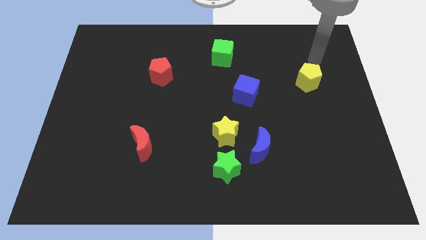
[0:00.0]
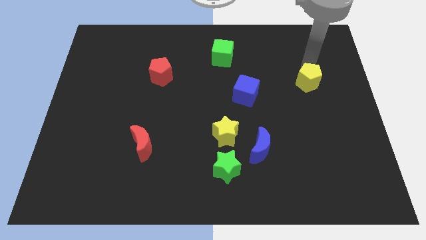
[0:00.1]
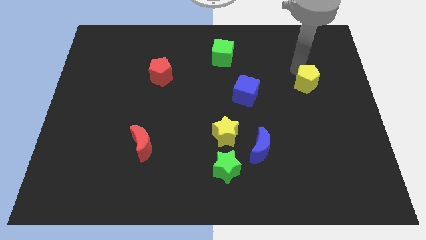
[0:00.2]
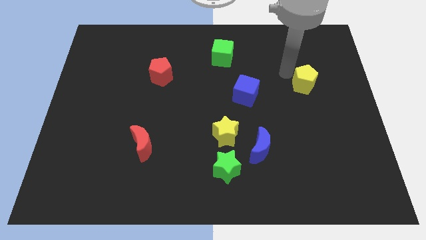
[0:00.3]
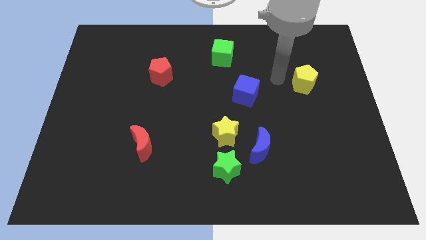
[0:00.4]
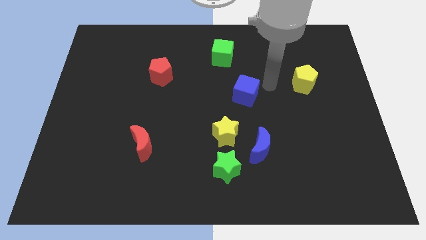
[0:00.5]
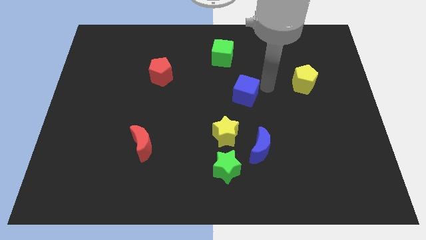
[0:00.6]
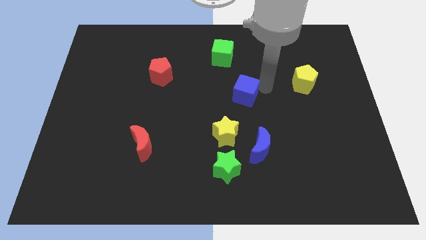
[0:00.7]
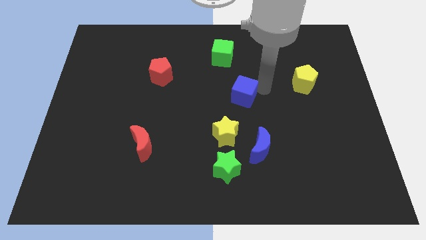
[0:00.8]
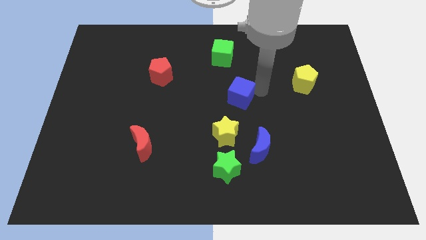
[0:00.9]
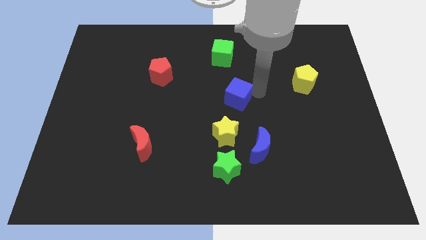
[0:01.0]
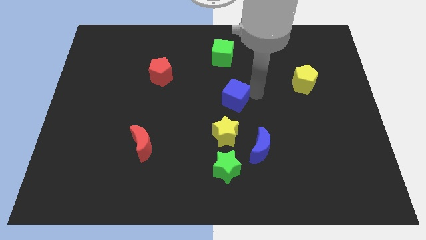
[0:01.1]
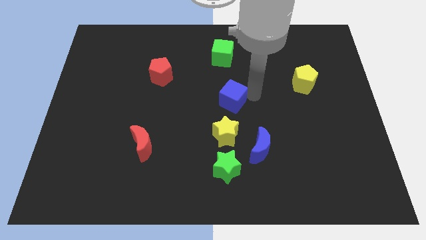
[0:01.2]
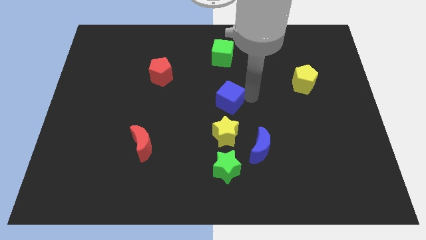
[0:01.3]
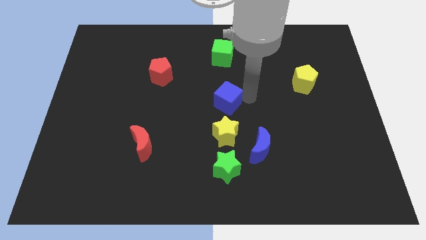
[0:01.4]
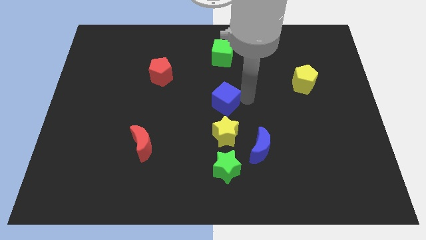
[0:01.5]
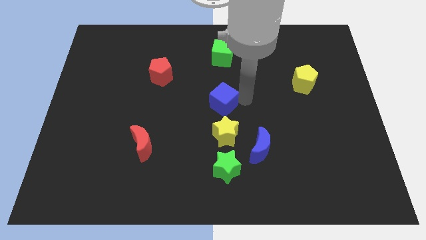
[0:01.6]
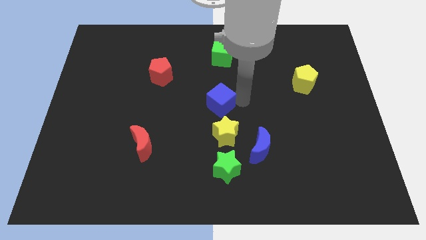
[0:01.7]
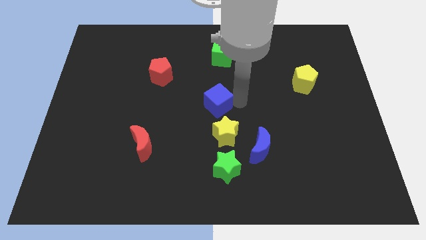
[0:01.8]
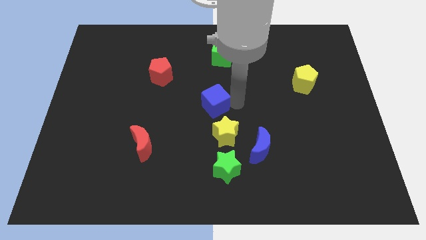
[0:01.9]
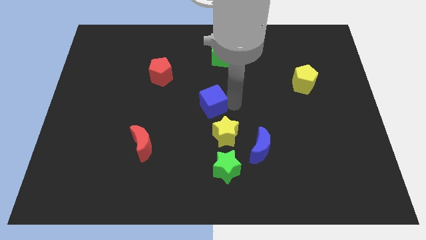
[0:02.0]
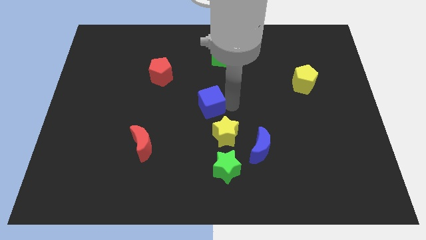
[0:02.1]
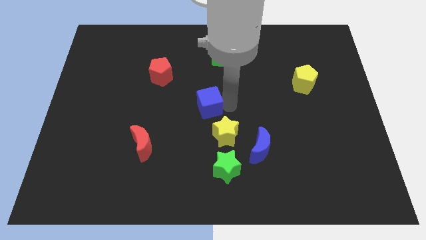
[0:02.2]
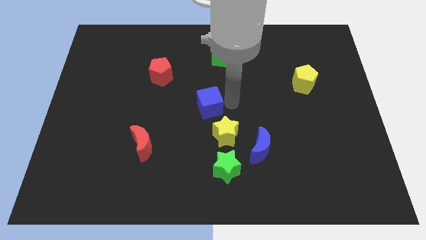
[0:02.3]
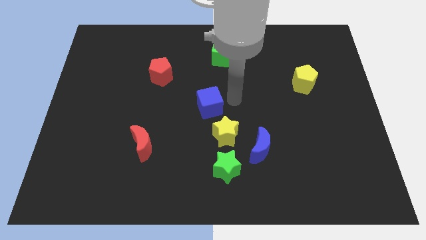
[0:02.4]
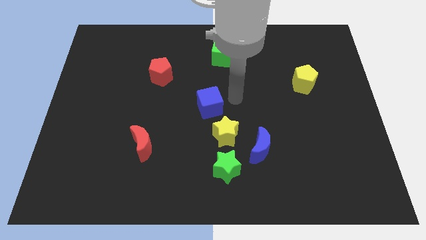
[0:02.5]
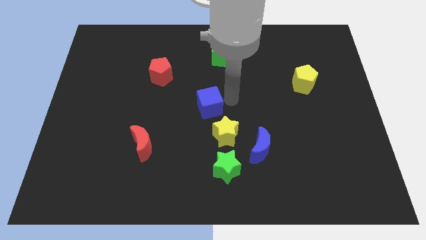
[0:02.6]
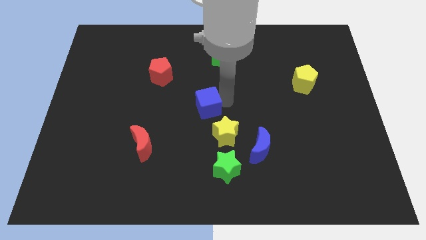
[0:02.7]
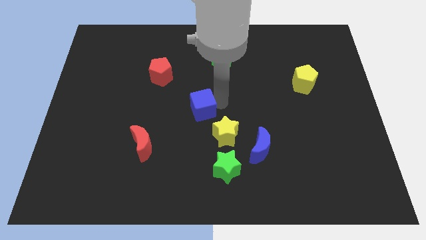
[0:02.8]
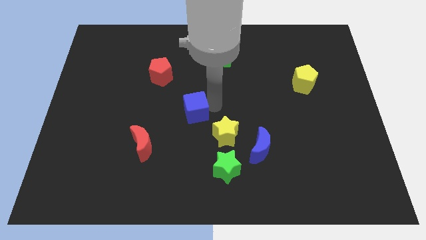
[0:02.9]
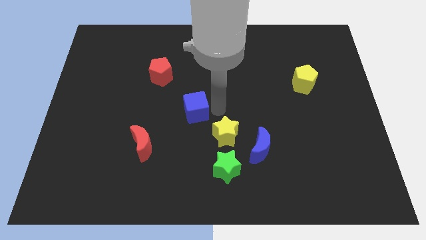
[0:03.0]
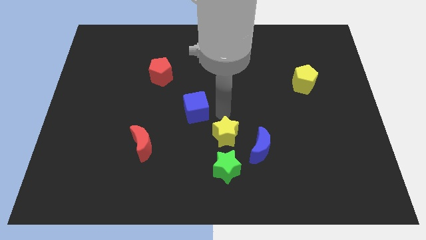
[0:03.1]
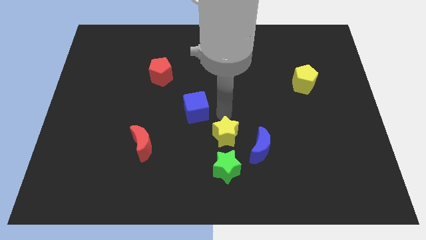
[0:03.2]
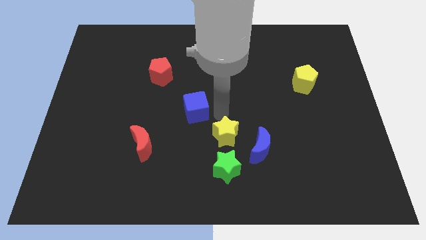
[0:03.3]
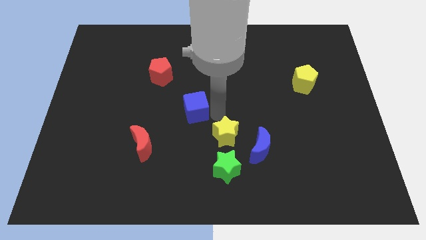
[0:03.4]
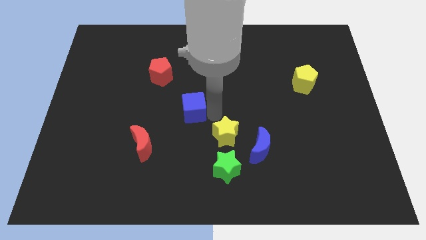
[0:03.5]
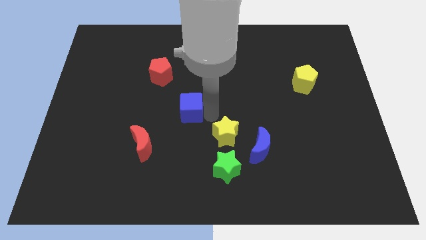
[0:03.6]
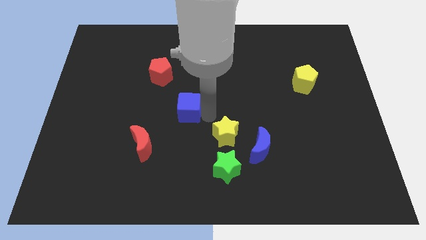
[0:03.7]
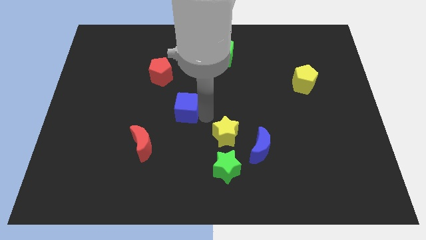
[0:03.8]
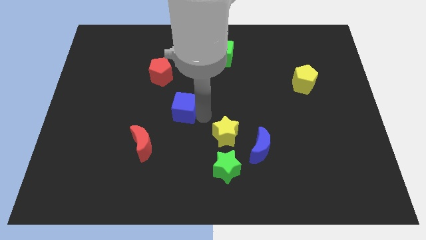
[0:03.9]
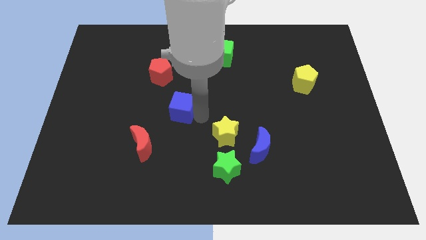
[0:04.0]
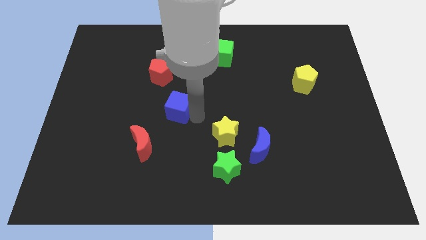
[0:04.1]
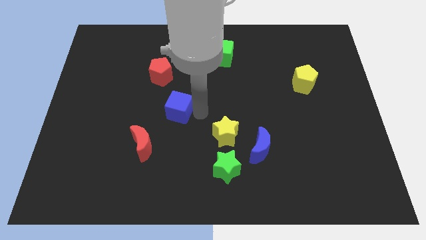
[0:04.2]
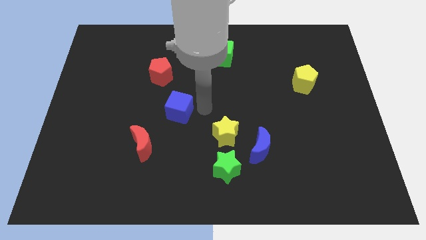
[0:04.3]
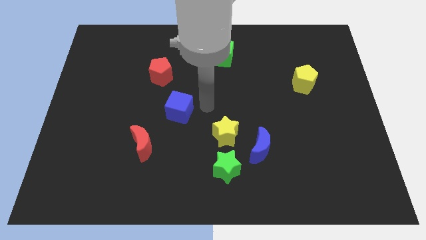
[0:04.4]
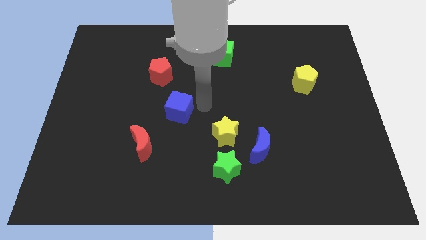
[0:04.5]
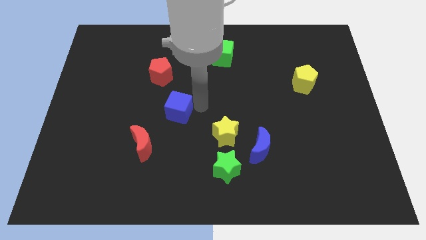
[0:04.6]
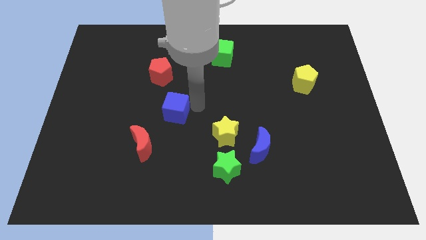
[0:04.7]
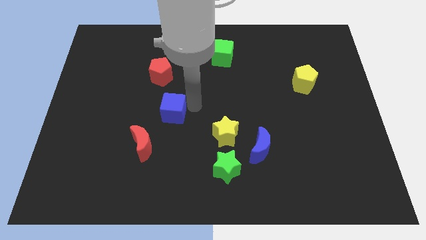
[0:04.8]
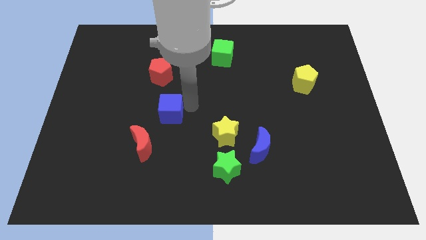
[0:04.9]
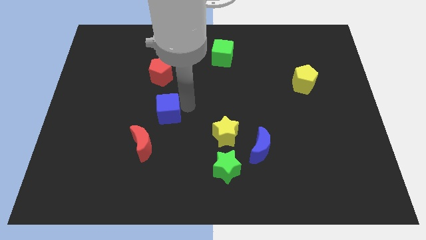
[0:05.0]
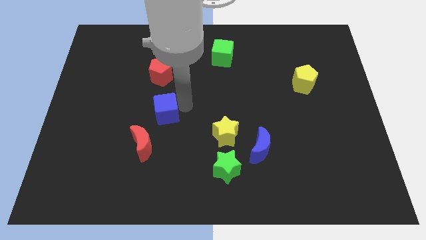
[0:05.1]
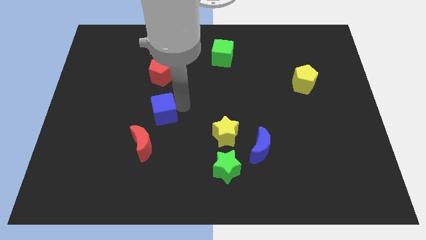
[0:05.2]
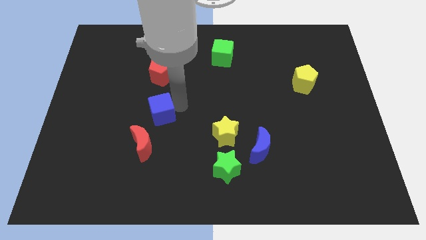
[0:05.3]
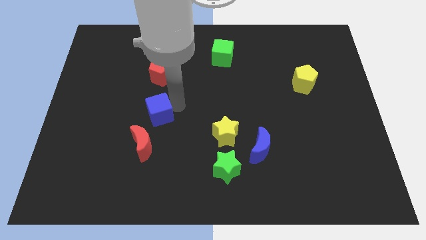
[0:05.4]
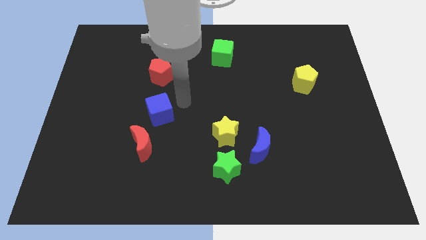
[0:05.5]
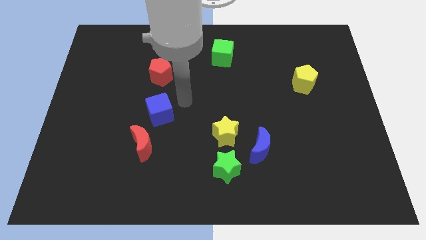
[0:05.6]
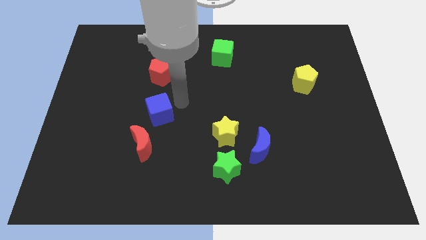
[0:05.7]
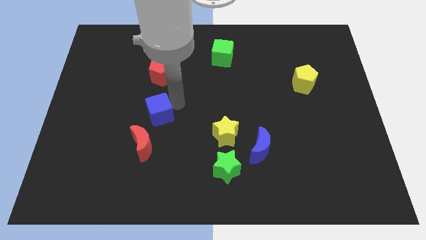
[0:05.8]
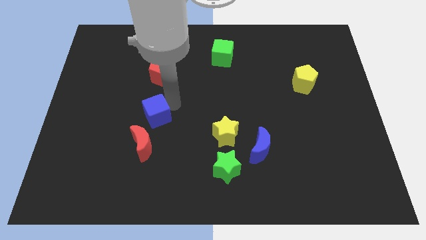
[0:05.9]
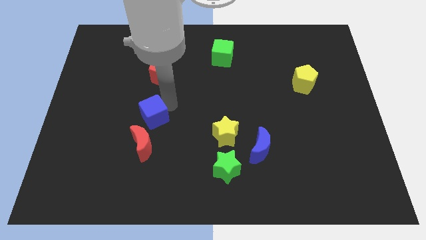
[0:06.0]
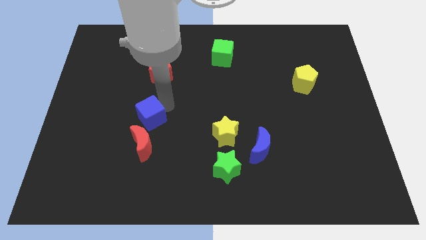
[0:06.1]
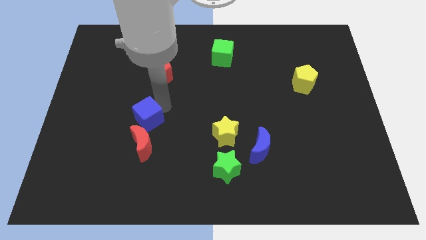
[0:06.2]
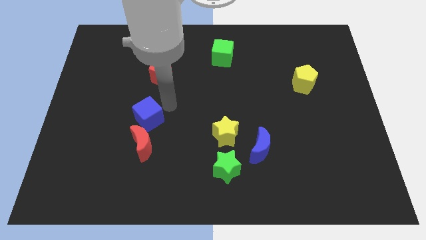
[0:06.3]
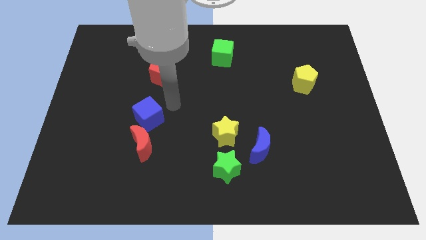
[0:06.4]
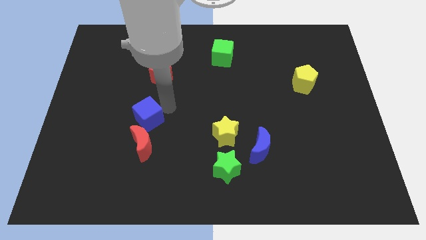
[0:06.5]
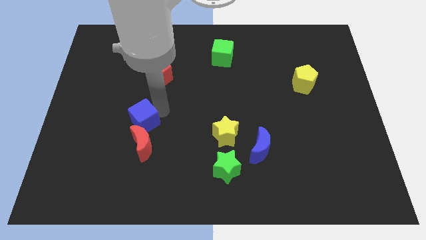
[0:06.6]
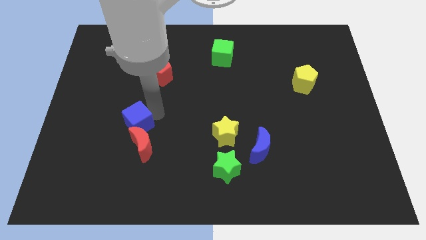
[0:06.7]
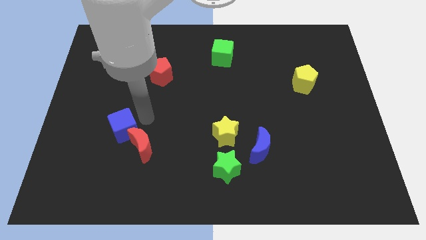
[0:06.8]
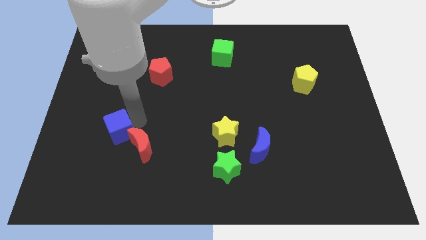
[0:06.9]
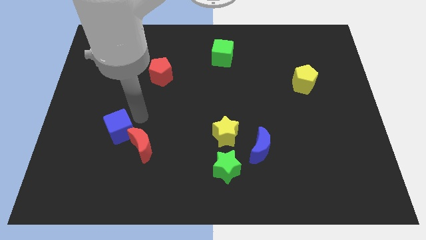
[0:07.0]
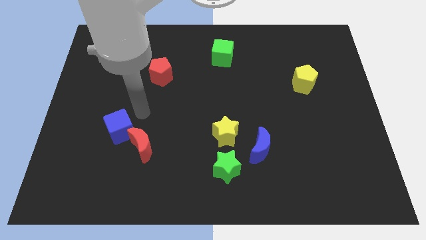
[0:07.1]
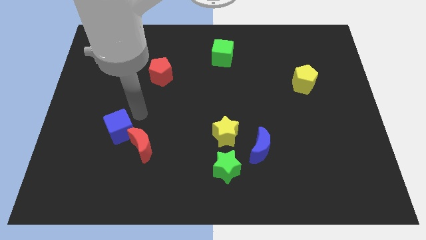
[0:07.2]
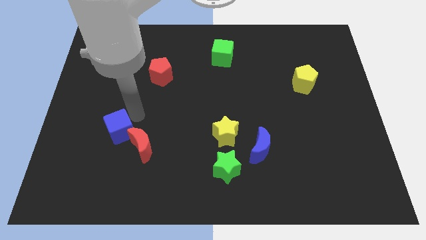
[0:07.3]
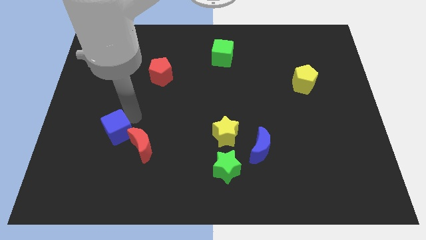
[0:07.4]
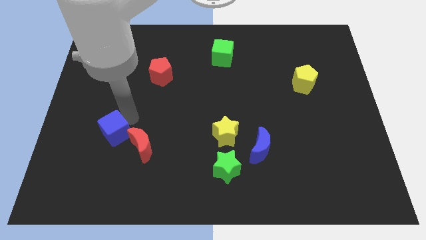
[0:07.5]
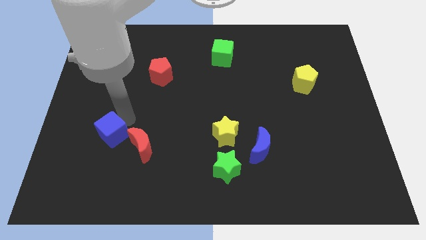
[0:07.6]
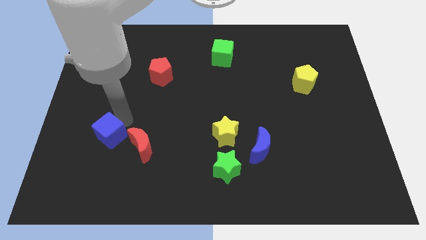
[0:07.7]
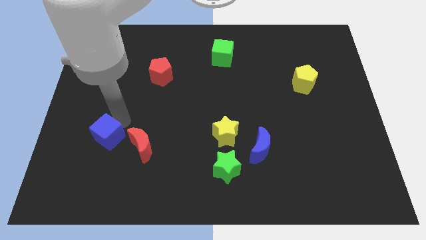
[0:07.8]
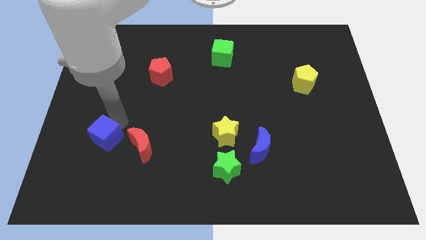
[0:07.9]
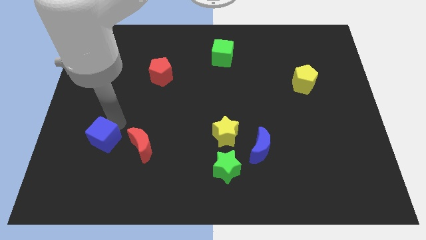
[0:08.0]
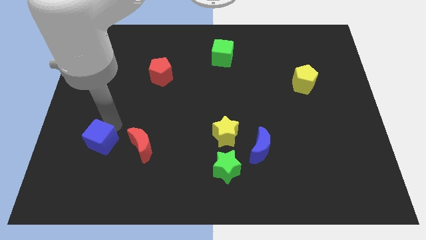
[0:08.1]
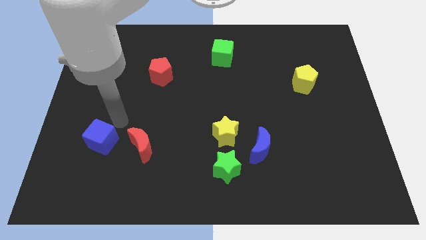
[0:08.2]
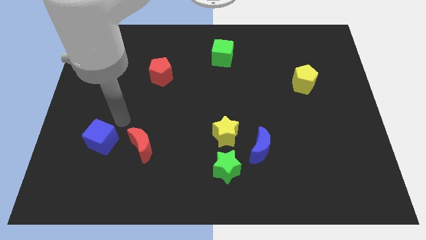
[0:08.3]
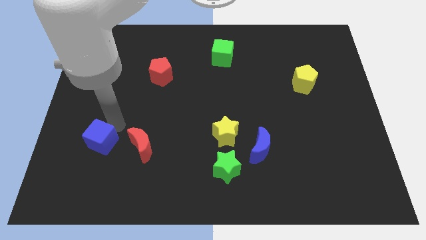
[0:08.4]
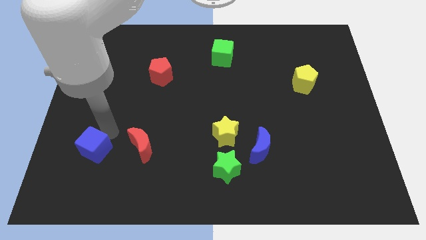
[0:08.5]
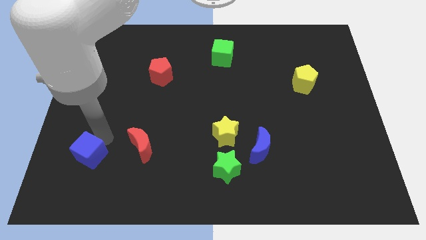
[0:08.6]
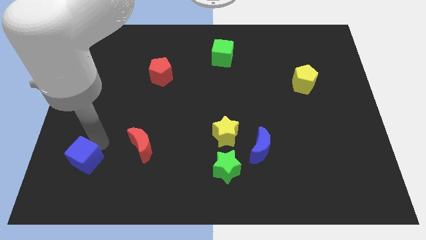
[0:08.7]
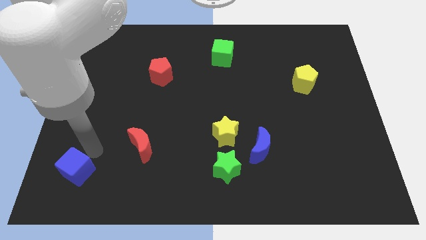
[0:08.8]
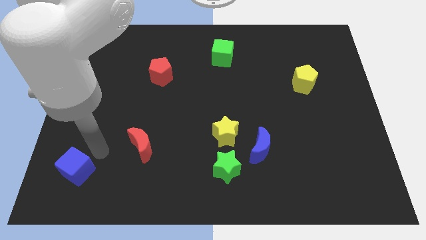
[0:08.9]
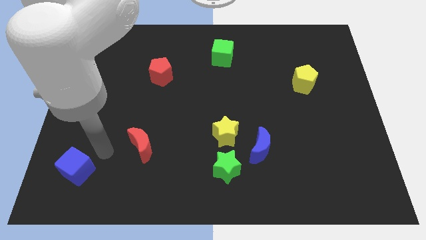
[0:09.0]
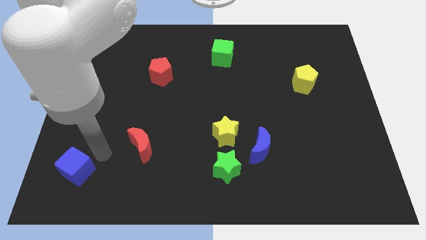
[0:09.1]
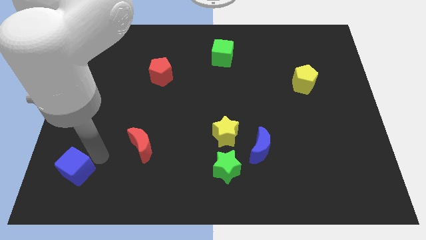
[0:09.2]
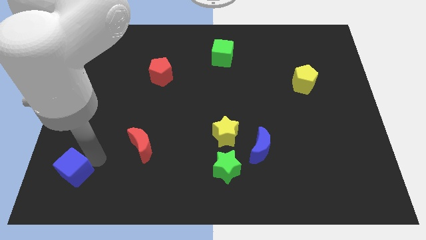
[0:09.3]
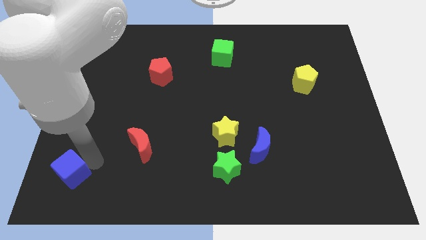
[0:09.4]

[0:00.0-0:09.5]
slide the blue cube to the bottom left corner
